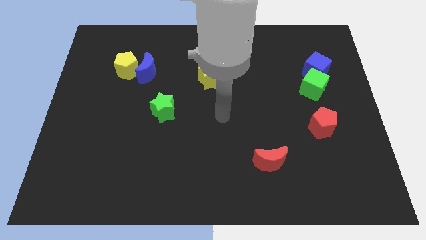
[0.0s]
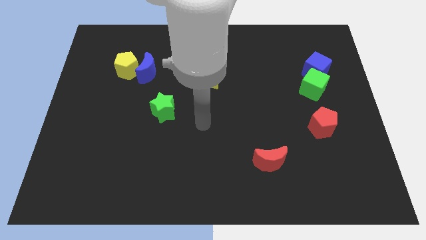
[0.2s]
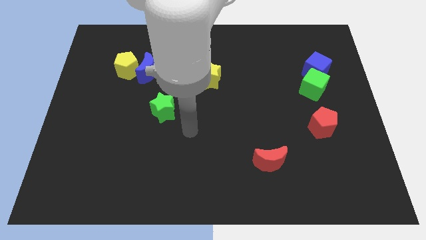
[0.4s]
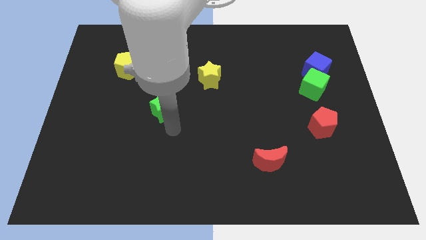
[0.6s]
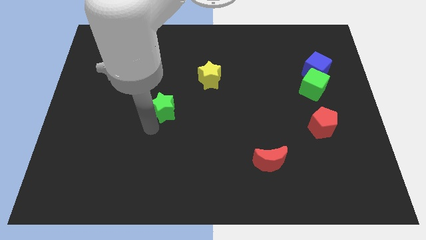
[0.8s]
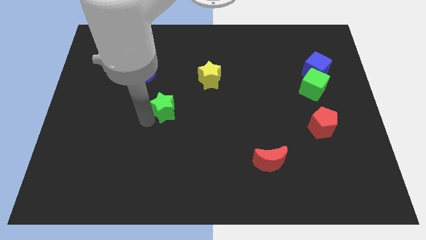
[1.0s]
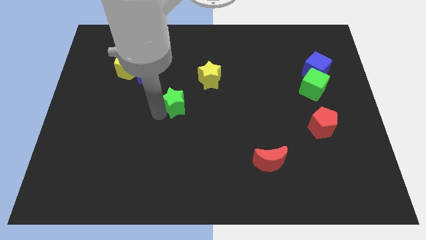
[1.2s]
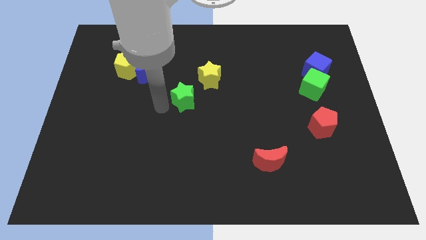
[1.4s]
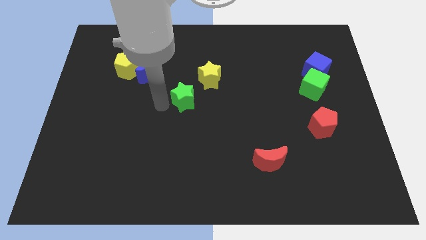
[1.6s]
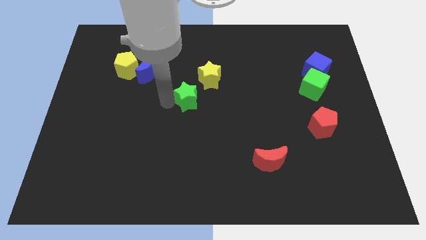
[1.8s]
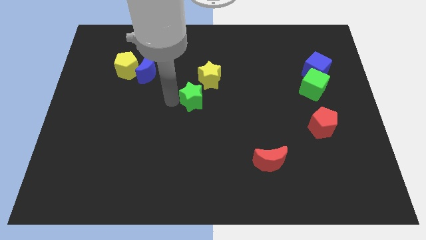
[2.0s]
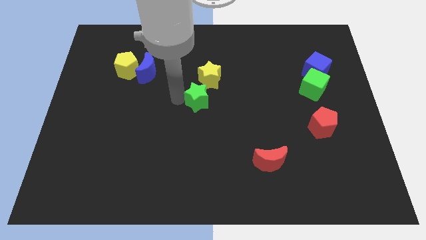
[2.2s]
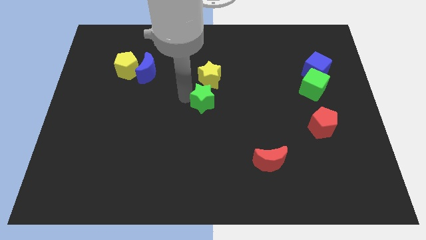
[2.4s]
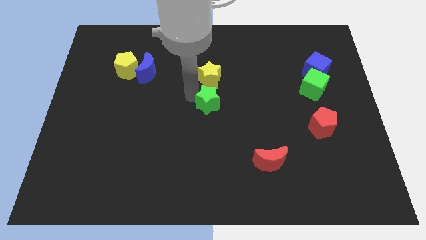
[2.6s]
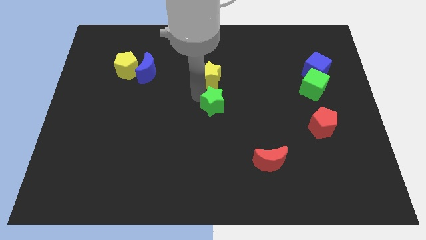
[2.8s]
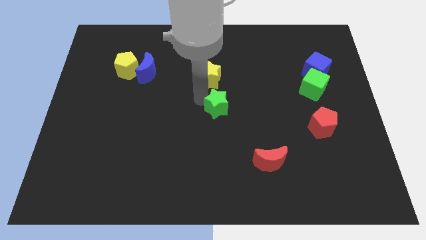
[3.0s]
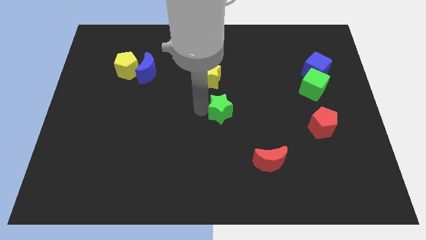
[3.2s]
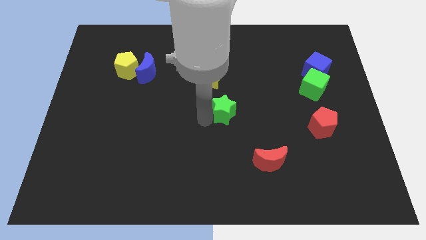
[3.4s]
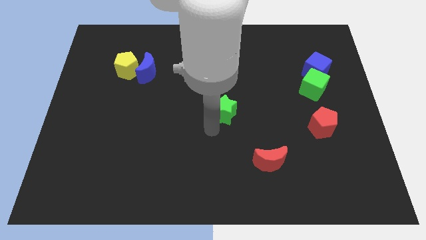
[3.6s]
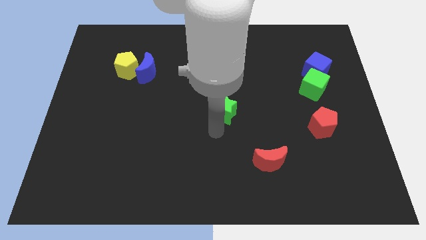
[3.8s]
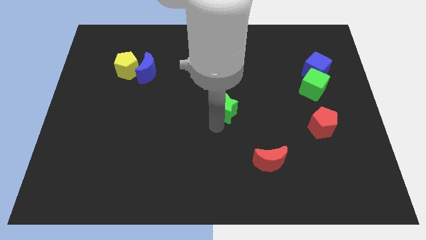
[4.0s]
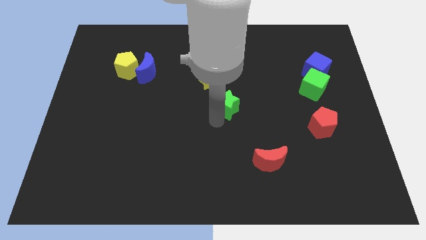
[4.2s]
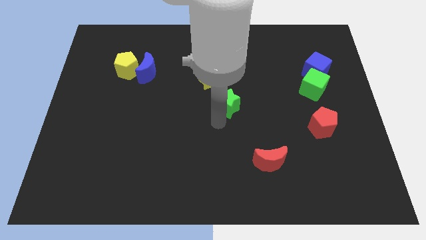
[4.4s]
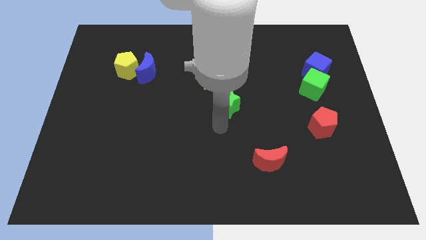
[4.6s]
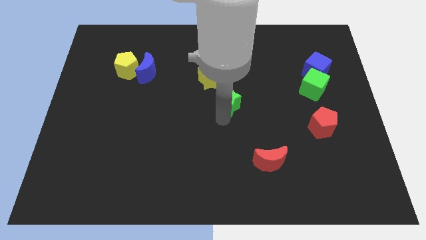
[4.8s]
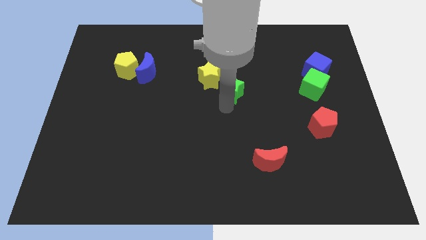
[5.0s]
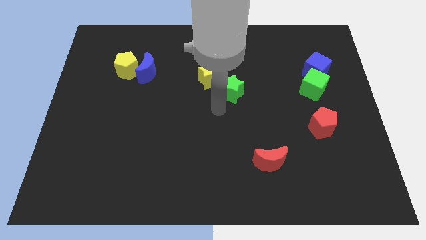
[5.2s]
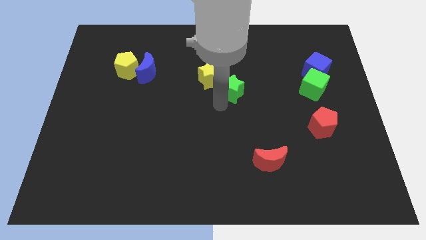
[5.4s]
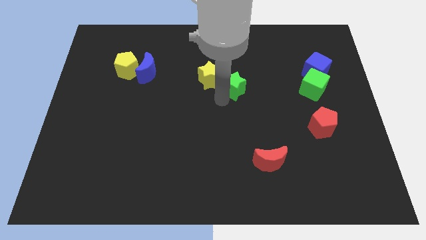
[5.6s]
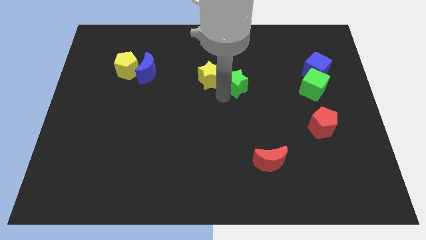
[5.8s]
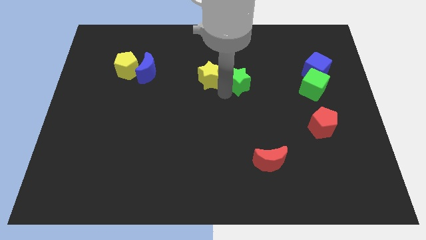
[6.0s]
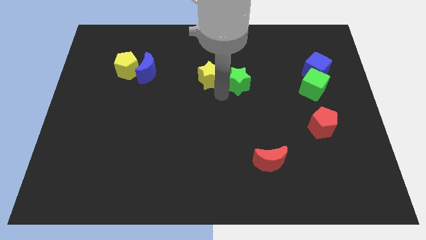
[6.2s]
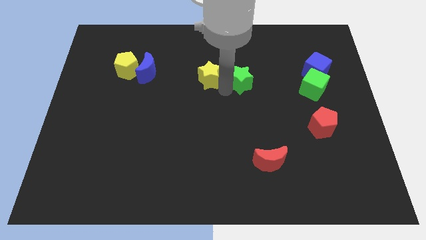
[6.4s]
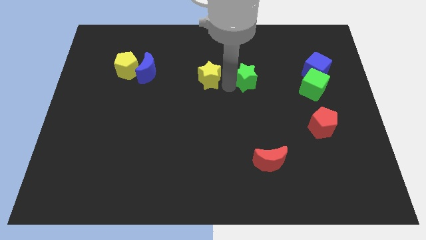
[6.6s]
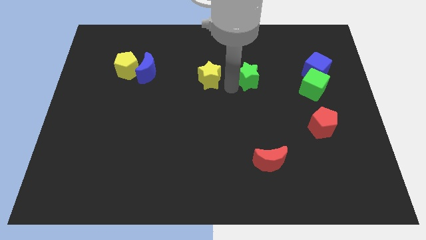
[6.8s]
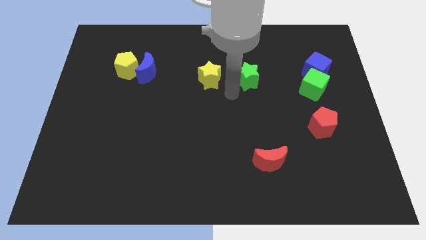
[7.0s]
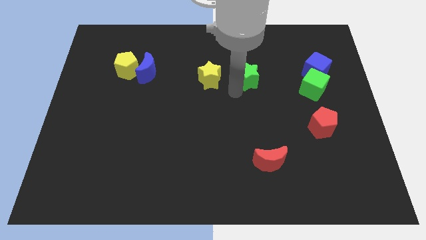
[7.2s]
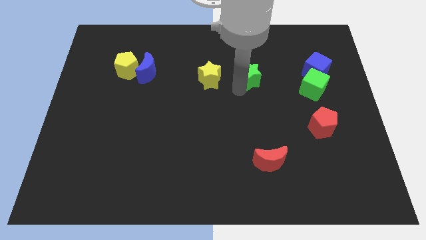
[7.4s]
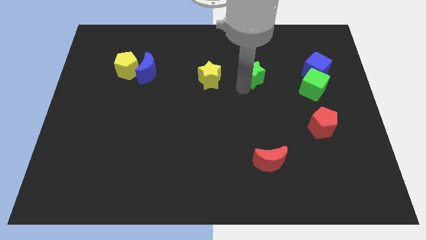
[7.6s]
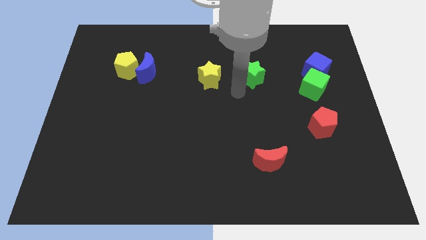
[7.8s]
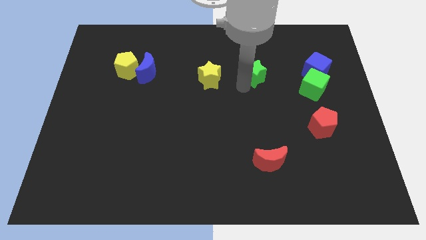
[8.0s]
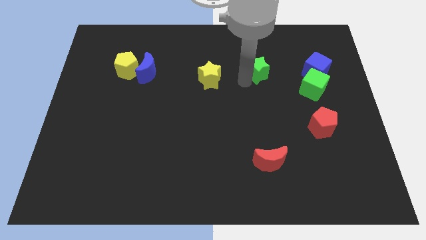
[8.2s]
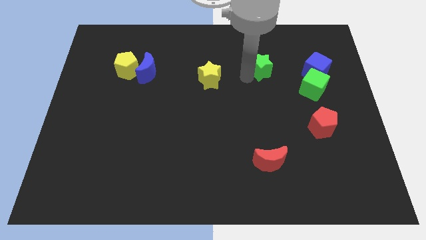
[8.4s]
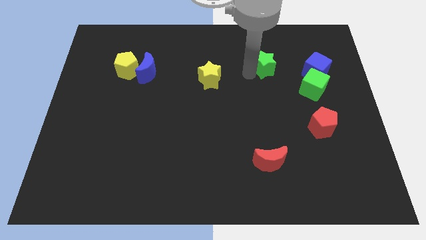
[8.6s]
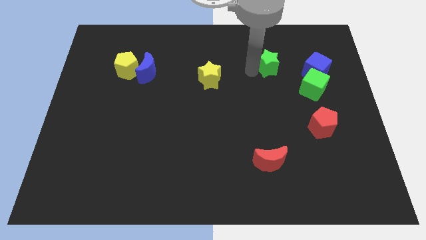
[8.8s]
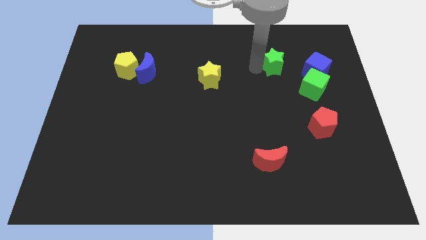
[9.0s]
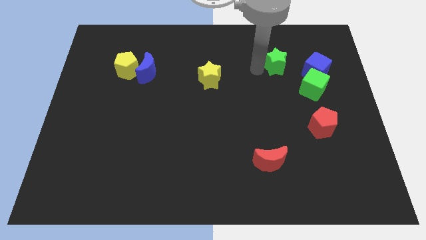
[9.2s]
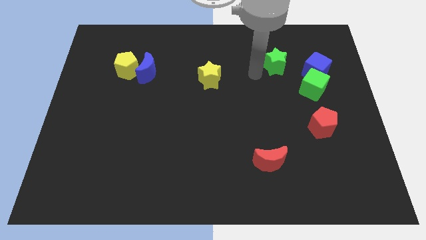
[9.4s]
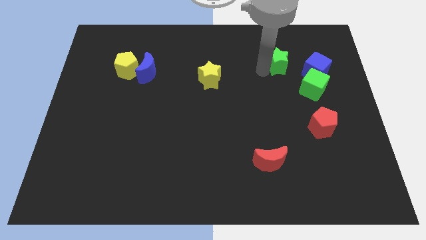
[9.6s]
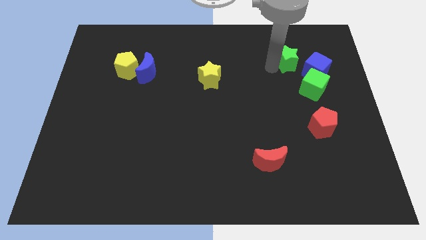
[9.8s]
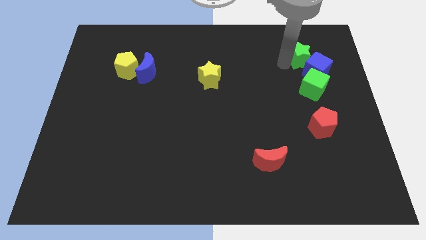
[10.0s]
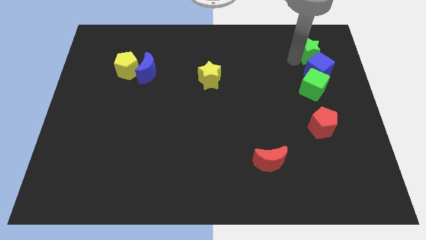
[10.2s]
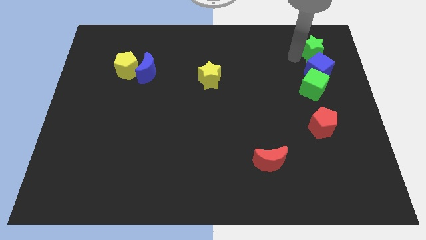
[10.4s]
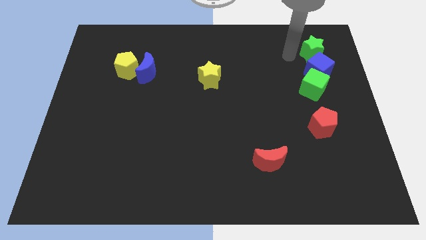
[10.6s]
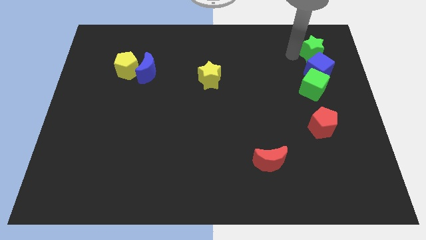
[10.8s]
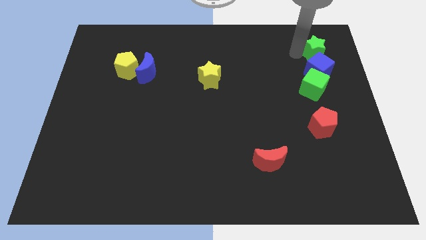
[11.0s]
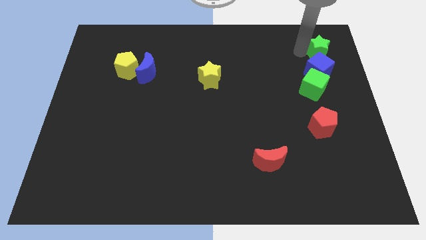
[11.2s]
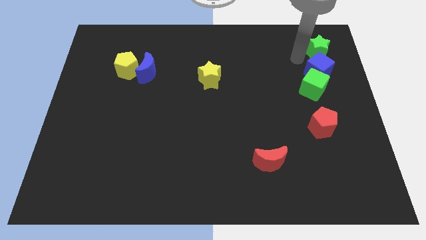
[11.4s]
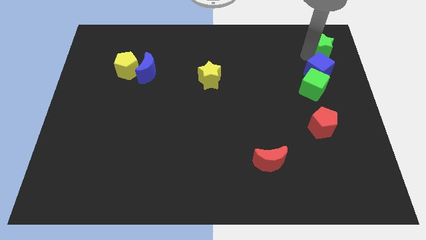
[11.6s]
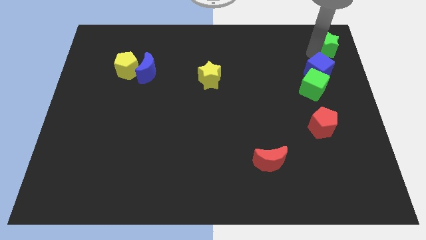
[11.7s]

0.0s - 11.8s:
move the green star to the top right corner
